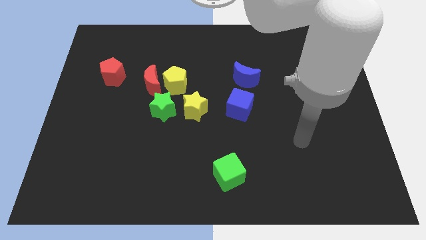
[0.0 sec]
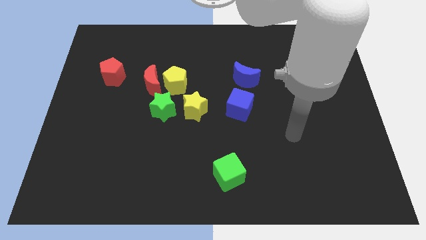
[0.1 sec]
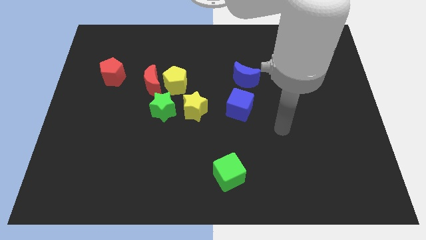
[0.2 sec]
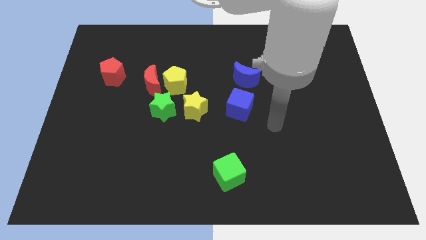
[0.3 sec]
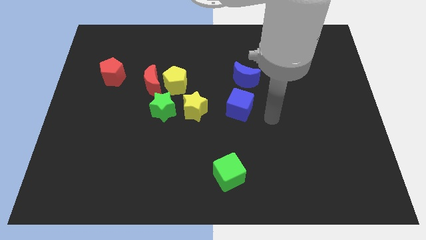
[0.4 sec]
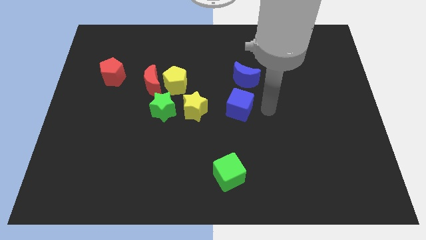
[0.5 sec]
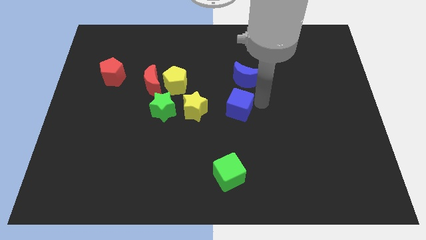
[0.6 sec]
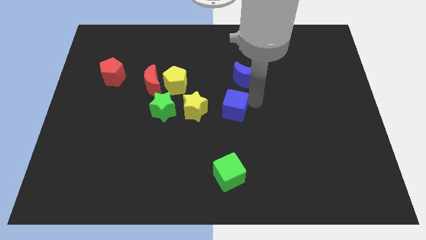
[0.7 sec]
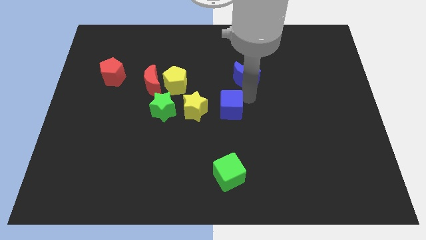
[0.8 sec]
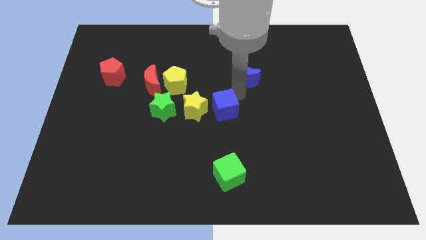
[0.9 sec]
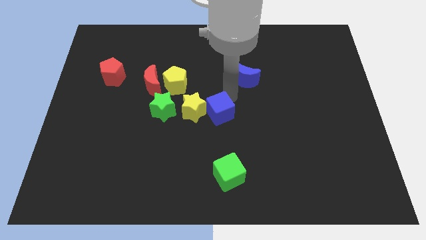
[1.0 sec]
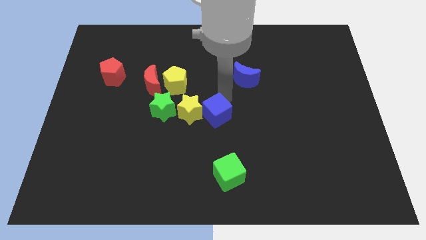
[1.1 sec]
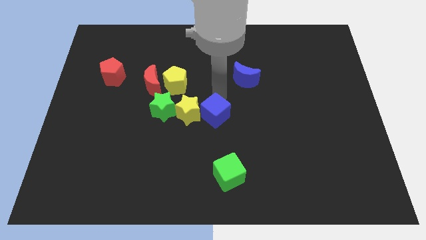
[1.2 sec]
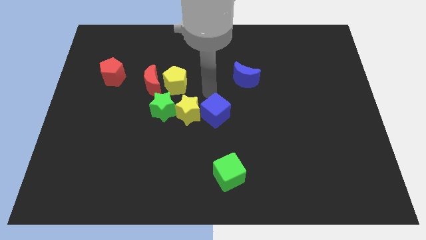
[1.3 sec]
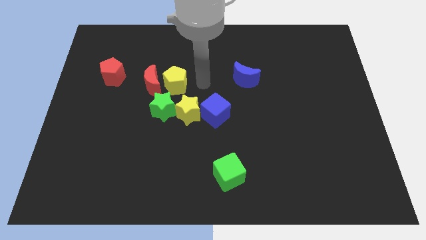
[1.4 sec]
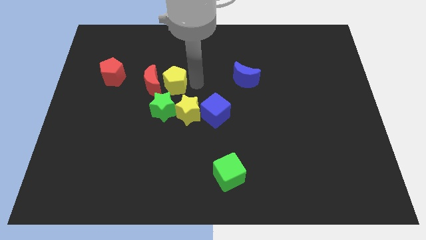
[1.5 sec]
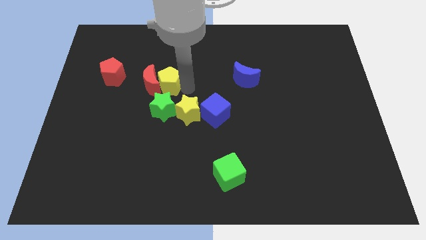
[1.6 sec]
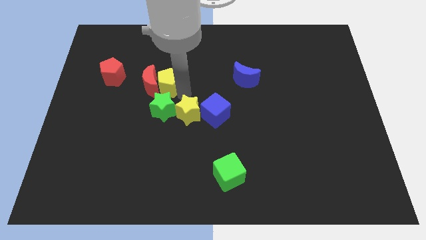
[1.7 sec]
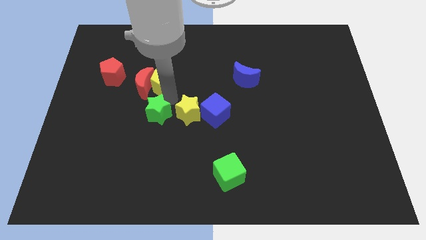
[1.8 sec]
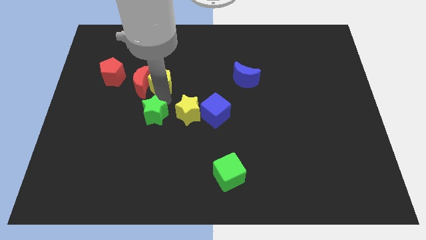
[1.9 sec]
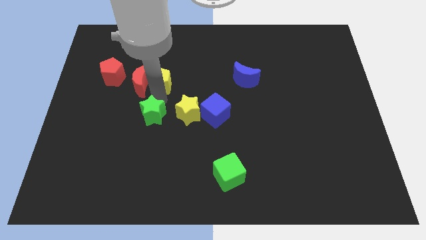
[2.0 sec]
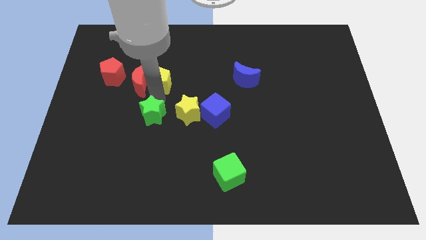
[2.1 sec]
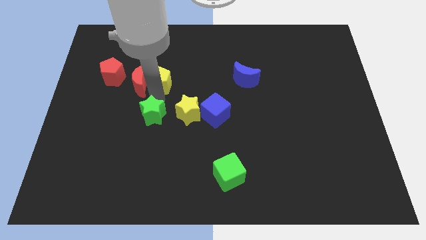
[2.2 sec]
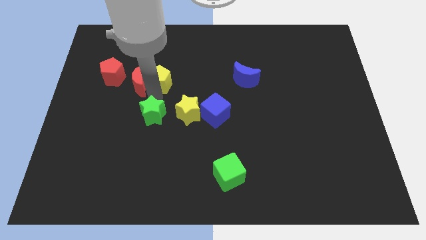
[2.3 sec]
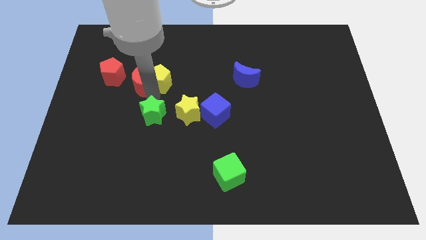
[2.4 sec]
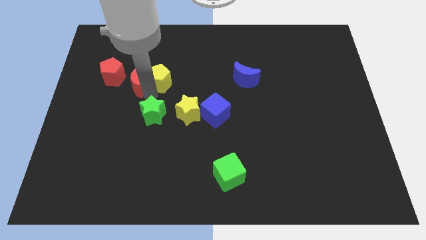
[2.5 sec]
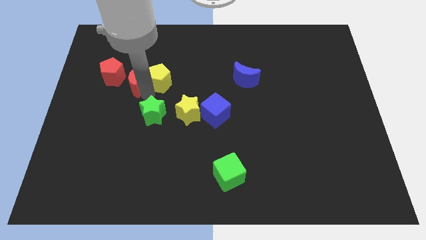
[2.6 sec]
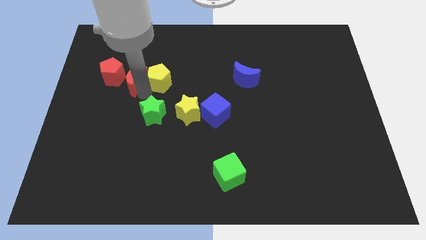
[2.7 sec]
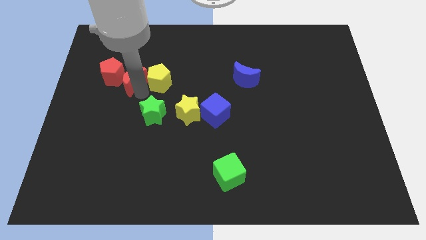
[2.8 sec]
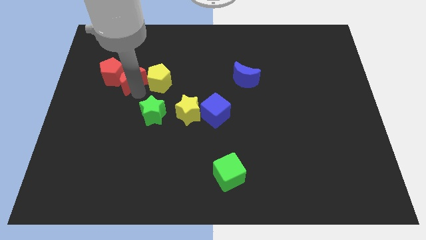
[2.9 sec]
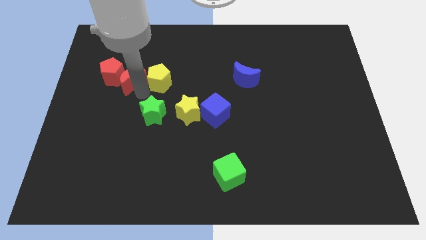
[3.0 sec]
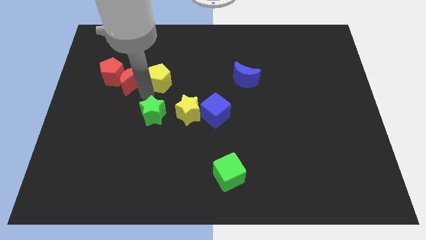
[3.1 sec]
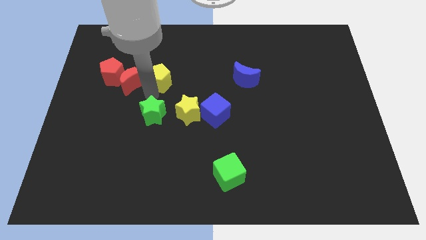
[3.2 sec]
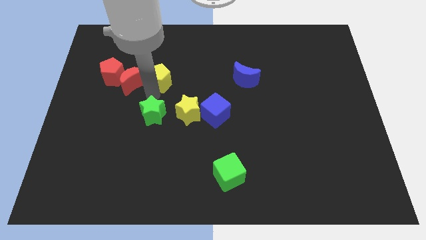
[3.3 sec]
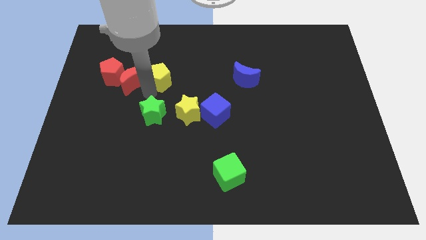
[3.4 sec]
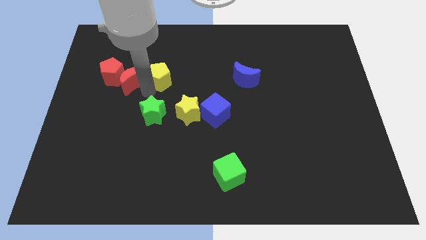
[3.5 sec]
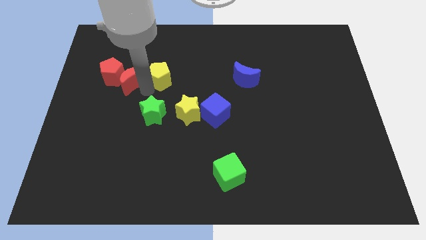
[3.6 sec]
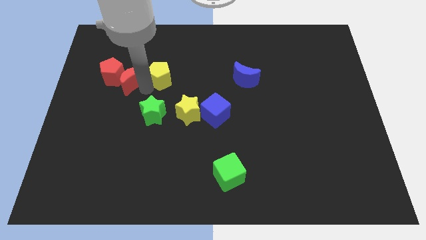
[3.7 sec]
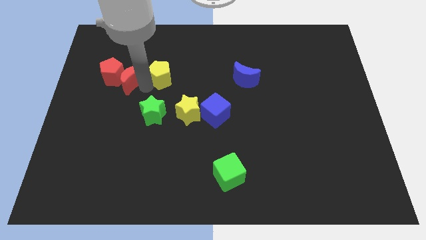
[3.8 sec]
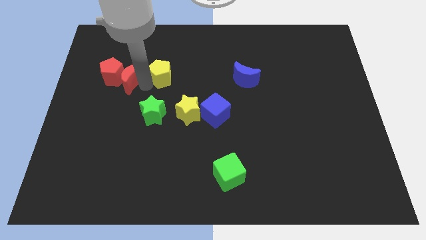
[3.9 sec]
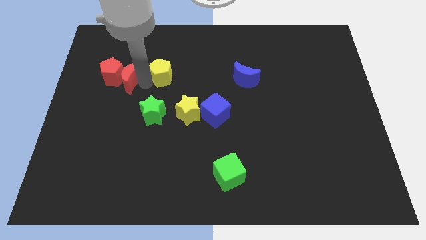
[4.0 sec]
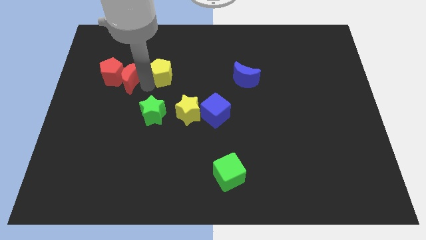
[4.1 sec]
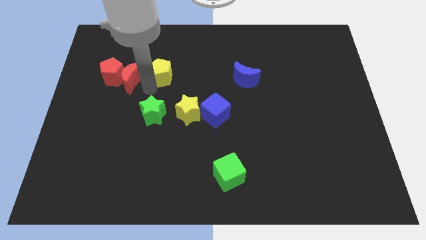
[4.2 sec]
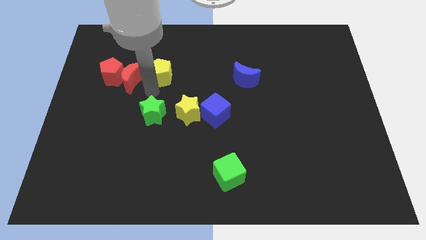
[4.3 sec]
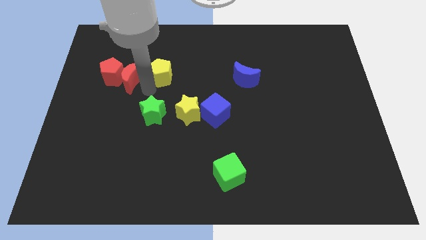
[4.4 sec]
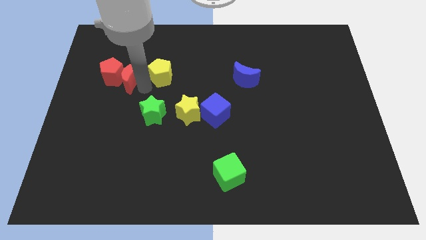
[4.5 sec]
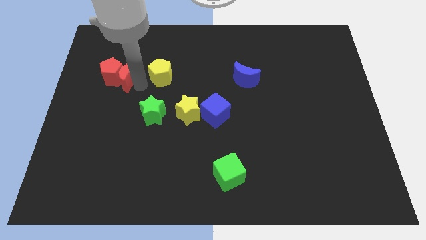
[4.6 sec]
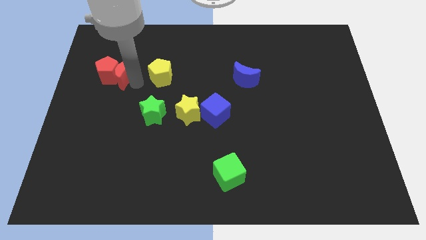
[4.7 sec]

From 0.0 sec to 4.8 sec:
separate the red moon from the yellow pentagon and green star

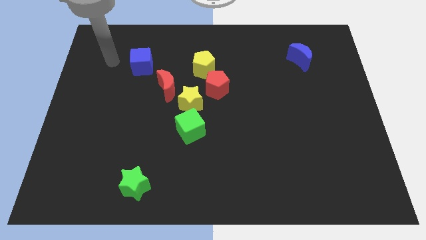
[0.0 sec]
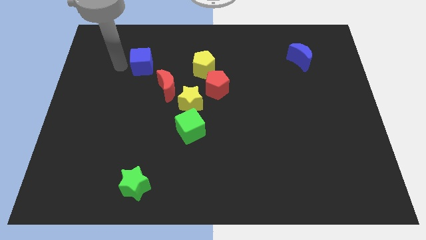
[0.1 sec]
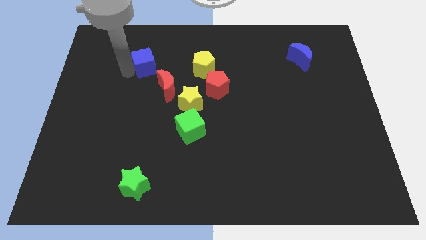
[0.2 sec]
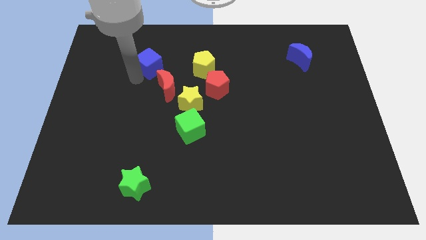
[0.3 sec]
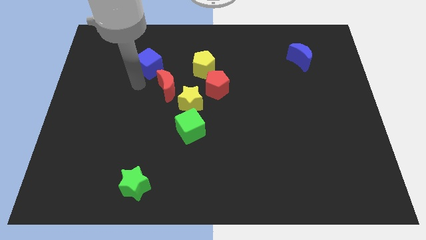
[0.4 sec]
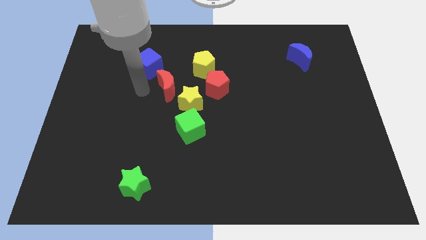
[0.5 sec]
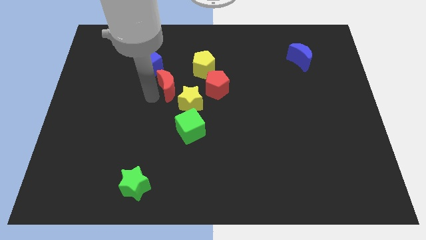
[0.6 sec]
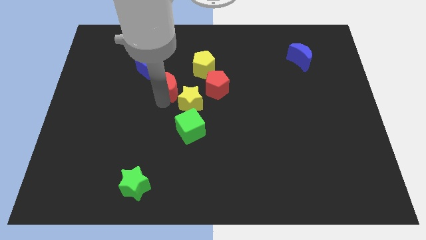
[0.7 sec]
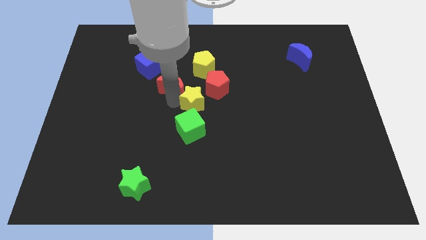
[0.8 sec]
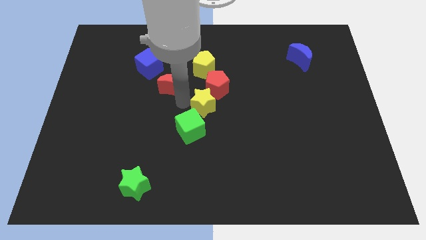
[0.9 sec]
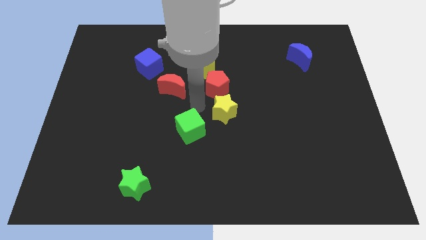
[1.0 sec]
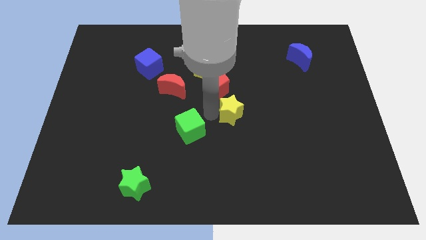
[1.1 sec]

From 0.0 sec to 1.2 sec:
pull the green cube apart from the yellow star

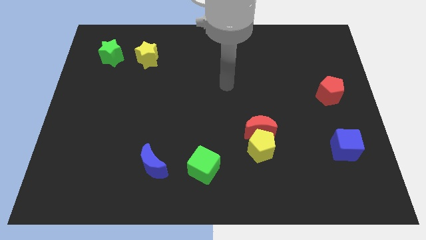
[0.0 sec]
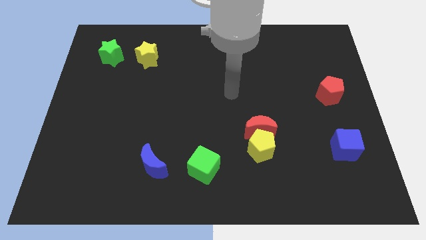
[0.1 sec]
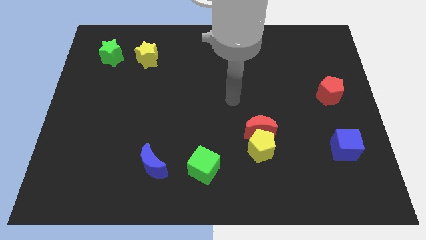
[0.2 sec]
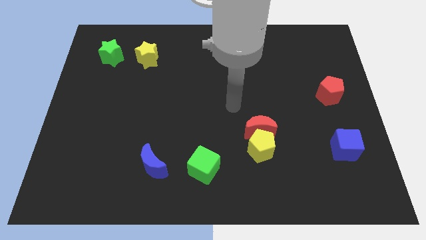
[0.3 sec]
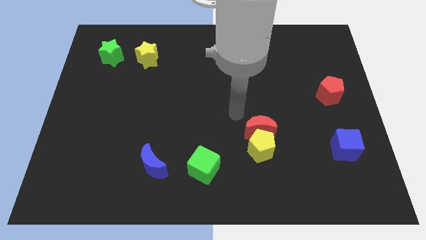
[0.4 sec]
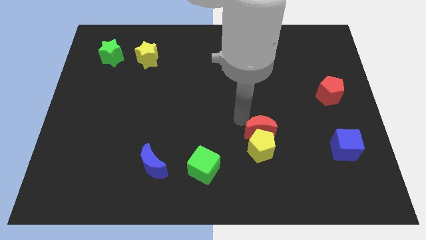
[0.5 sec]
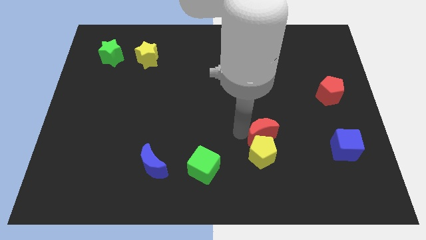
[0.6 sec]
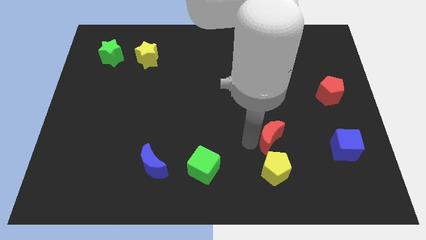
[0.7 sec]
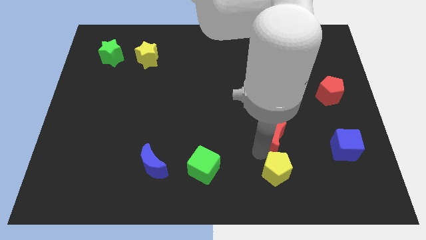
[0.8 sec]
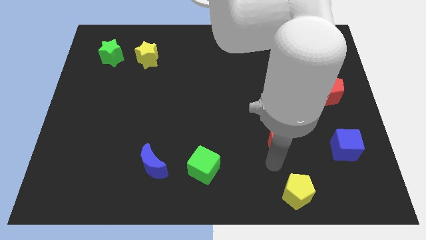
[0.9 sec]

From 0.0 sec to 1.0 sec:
pull the red moon apart from the yellow pentagon

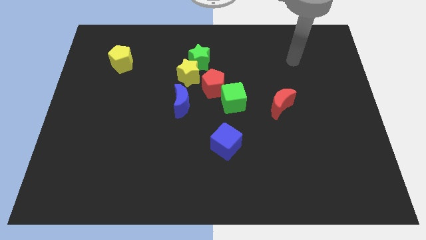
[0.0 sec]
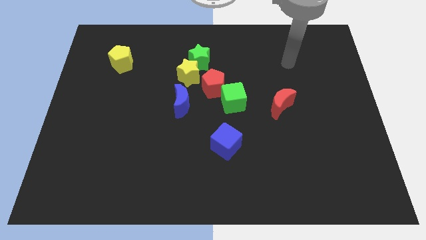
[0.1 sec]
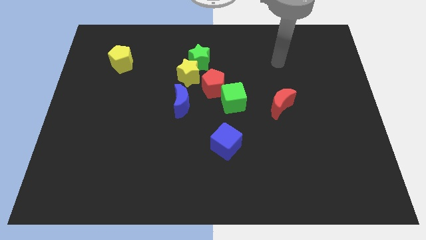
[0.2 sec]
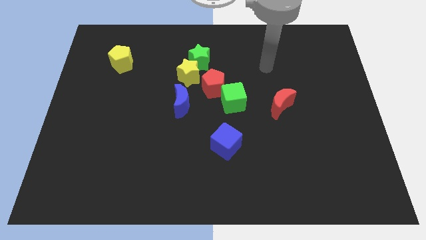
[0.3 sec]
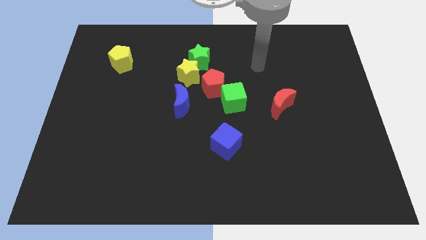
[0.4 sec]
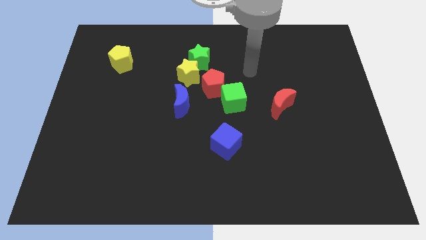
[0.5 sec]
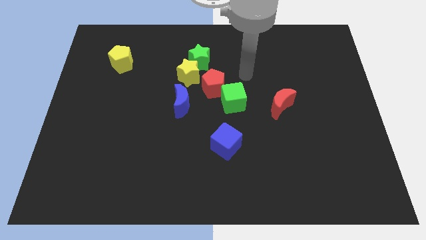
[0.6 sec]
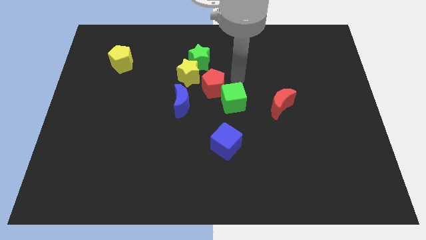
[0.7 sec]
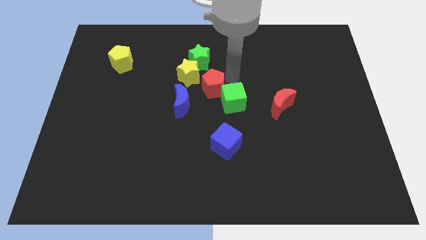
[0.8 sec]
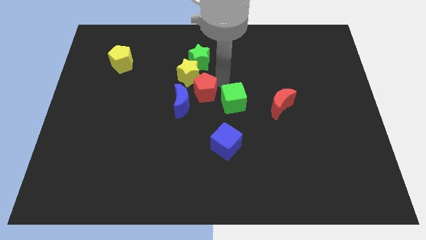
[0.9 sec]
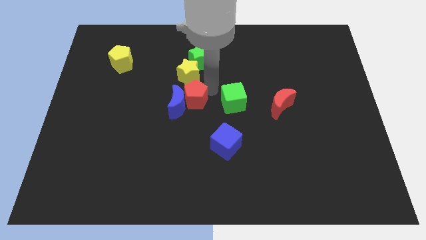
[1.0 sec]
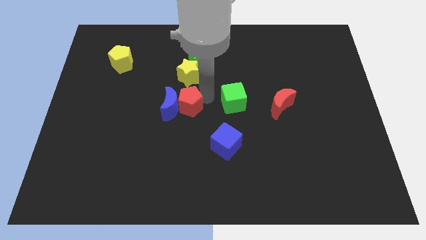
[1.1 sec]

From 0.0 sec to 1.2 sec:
move the green cube away from the red pentagon

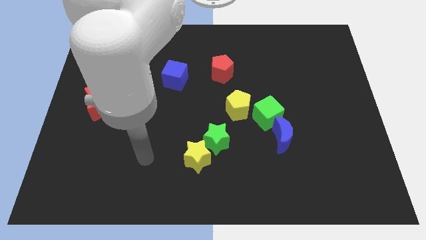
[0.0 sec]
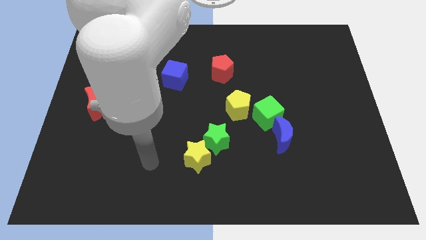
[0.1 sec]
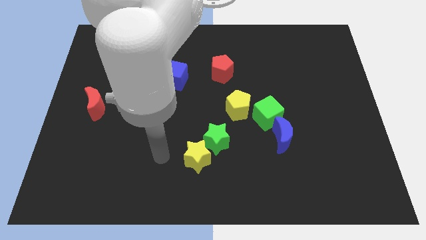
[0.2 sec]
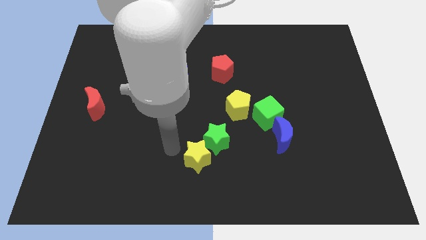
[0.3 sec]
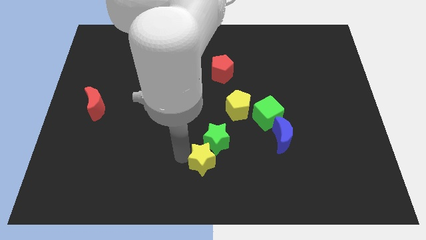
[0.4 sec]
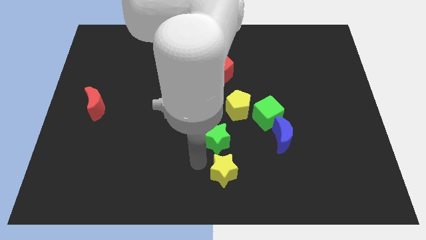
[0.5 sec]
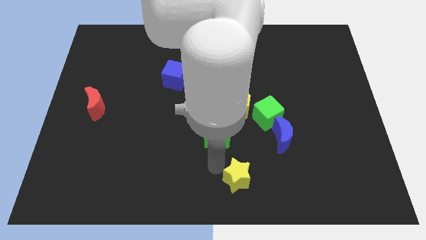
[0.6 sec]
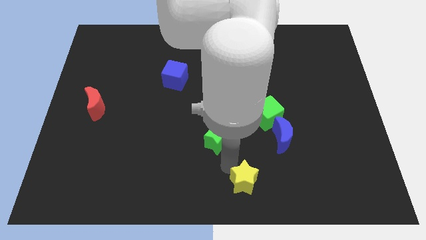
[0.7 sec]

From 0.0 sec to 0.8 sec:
separate the green star from the yellow star

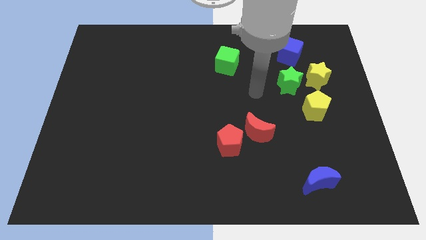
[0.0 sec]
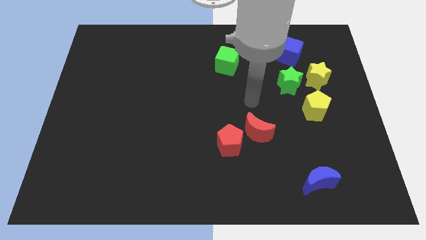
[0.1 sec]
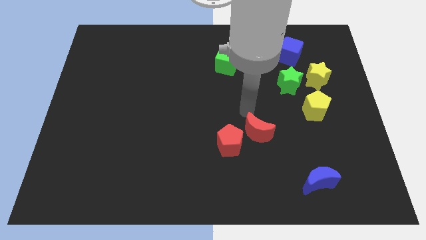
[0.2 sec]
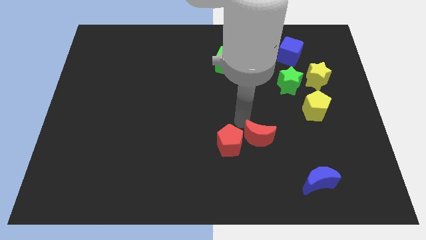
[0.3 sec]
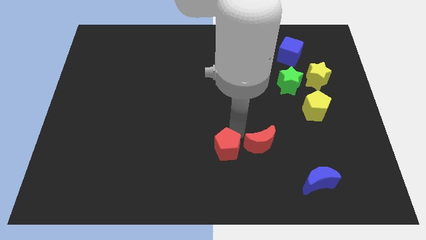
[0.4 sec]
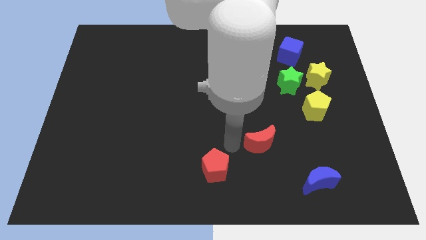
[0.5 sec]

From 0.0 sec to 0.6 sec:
pull the red moon apart from the red pentagon
